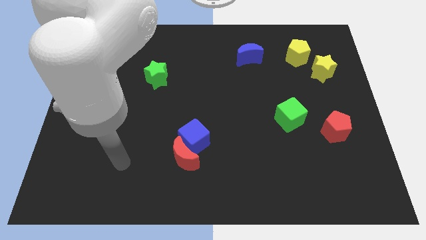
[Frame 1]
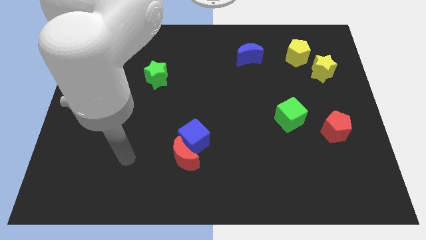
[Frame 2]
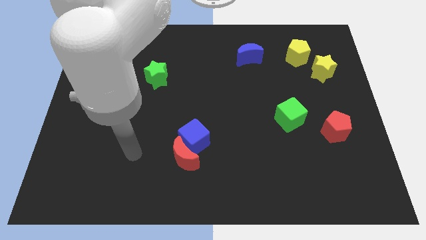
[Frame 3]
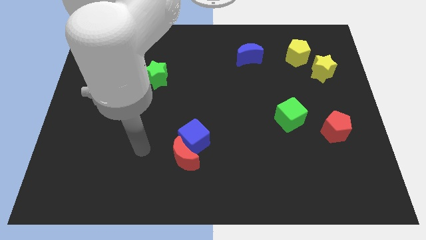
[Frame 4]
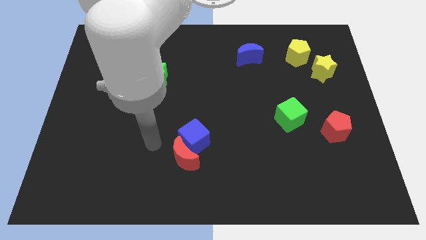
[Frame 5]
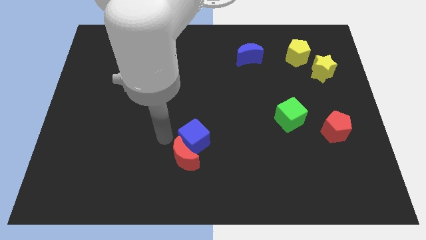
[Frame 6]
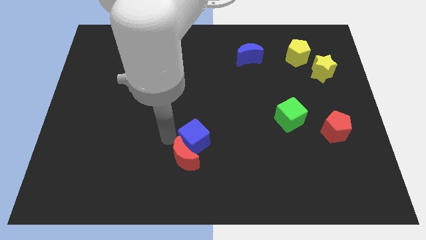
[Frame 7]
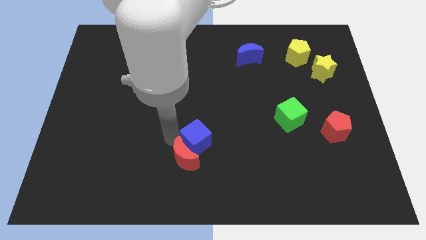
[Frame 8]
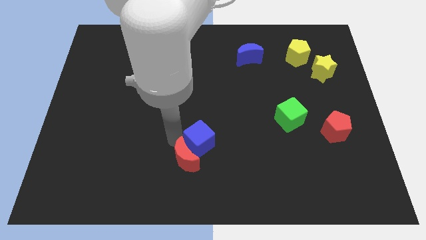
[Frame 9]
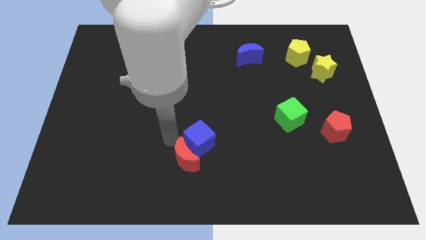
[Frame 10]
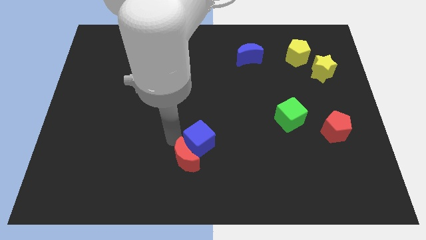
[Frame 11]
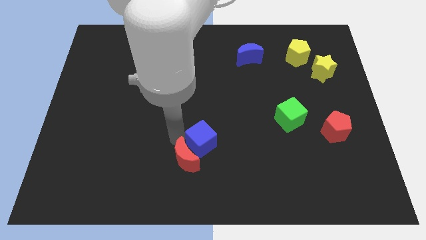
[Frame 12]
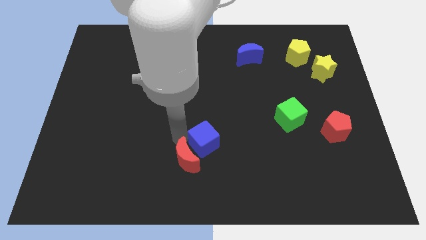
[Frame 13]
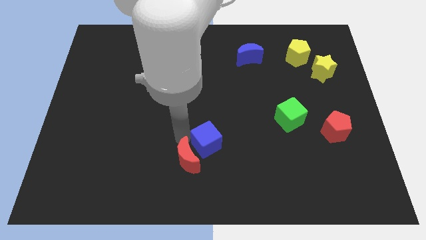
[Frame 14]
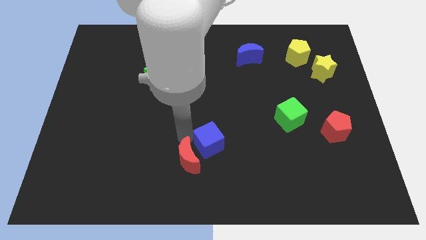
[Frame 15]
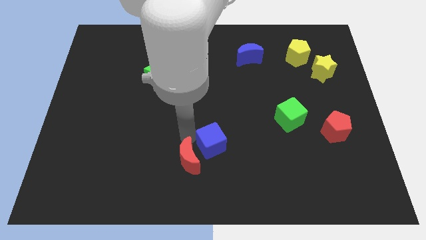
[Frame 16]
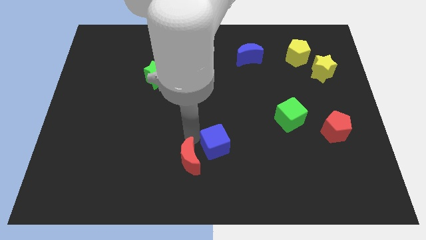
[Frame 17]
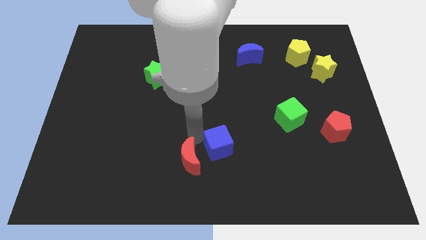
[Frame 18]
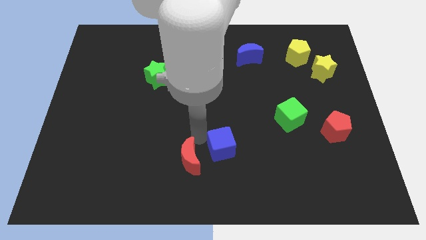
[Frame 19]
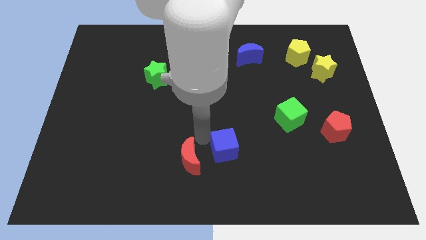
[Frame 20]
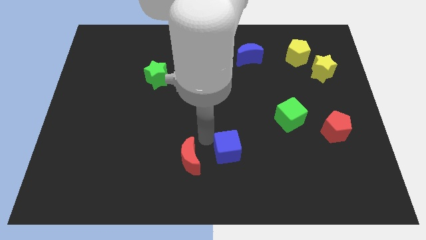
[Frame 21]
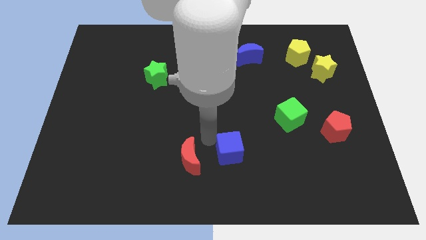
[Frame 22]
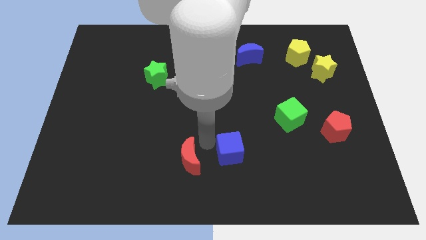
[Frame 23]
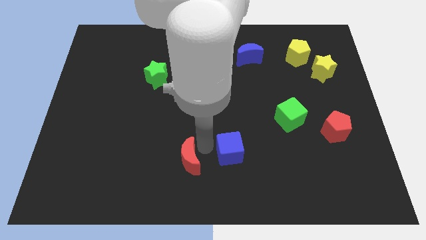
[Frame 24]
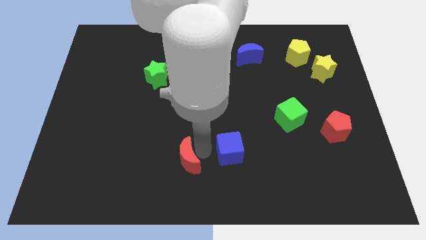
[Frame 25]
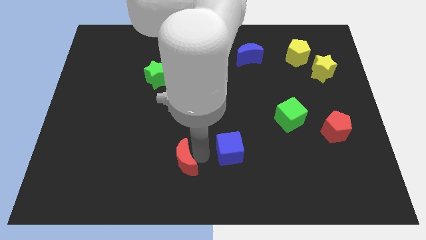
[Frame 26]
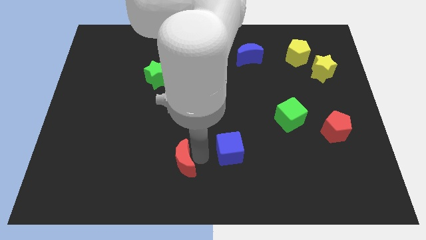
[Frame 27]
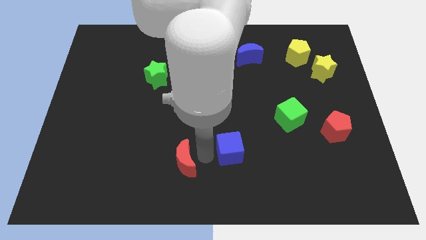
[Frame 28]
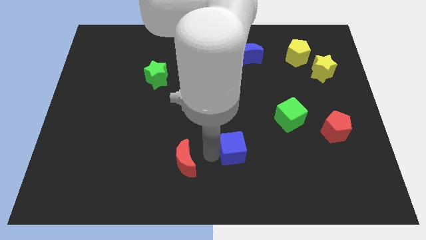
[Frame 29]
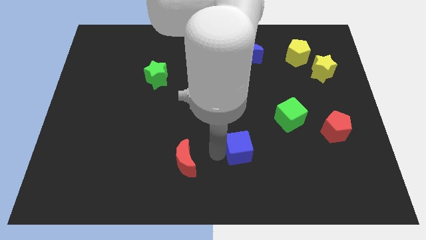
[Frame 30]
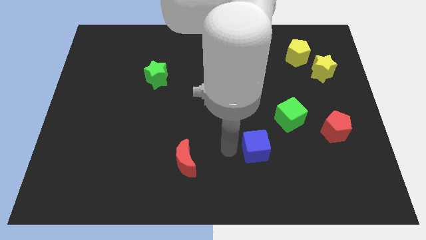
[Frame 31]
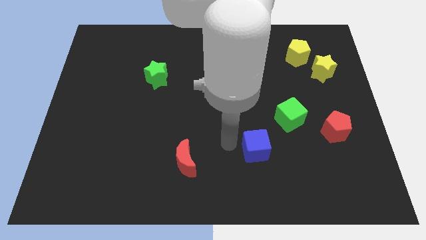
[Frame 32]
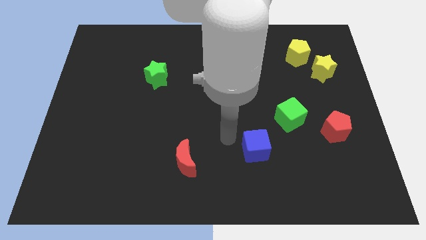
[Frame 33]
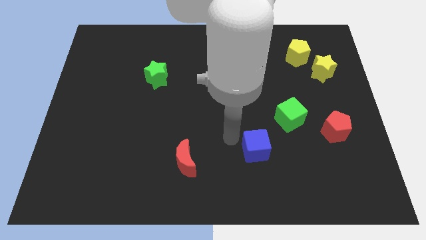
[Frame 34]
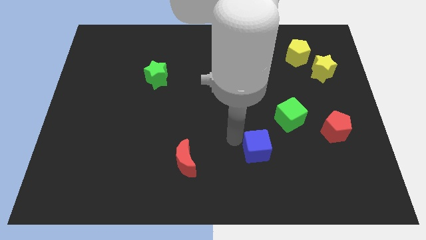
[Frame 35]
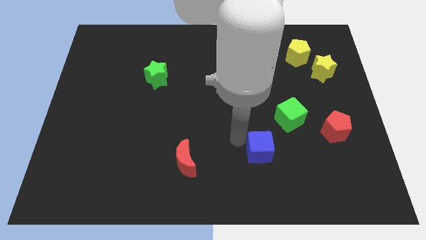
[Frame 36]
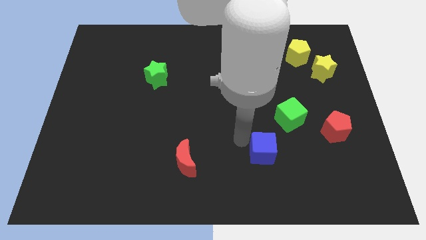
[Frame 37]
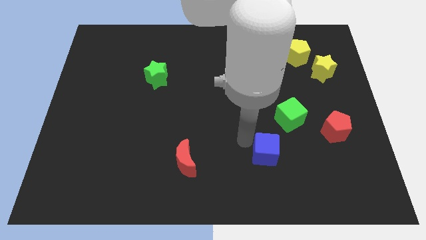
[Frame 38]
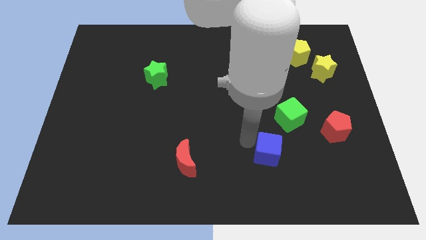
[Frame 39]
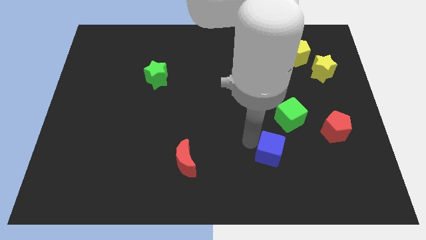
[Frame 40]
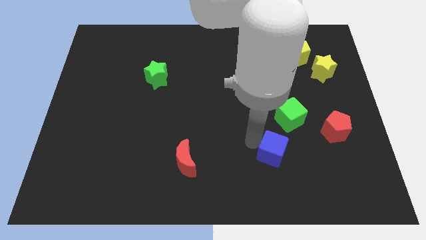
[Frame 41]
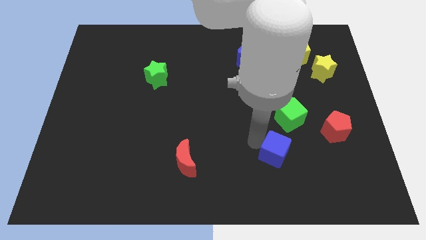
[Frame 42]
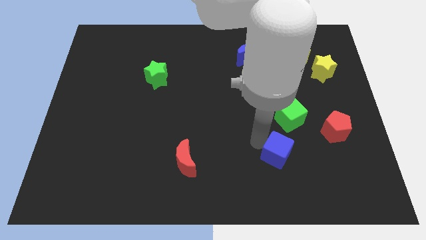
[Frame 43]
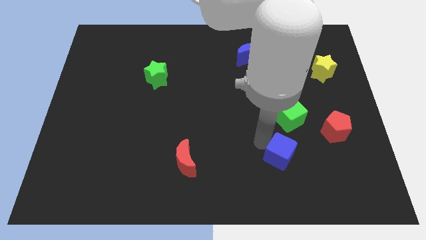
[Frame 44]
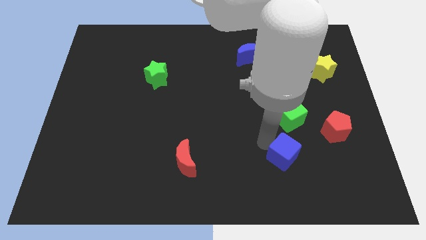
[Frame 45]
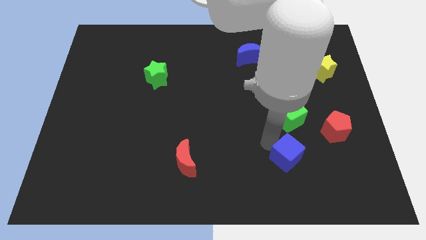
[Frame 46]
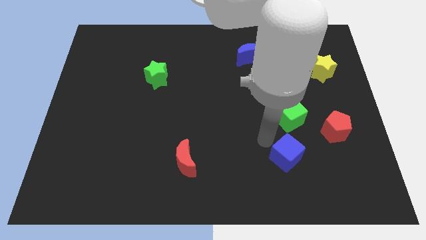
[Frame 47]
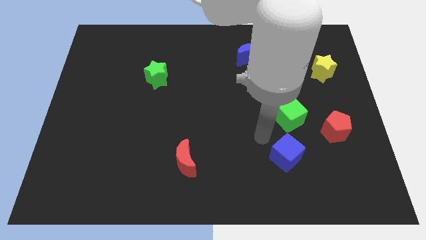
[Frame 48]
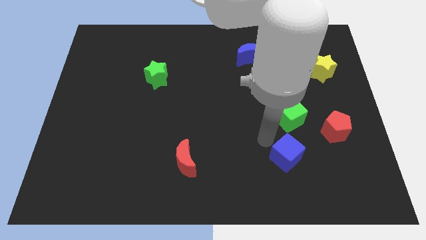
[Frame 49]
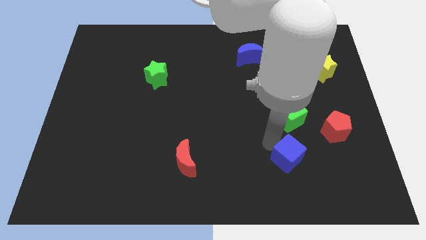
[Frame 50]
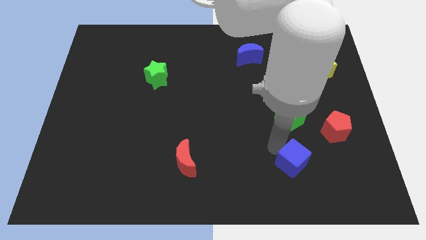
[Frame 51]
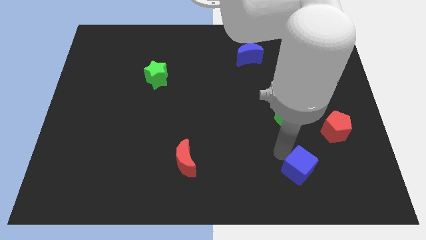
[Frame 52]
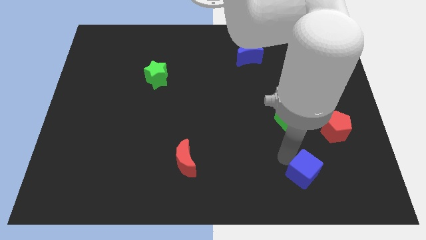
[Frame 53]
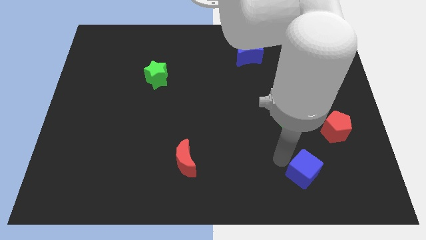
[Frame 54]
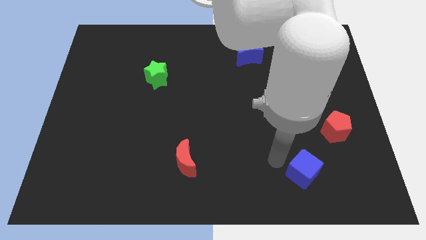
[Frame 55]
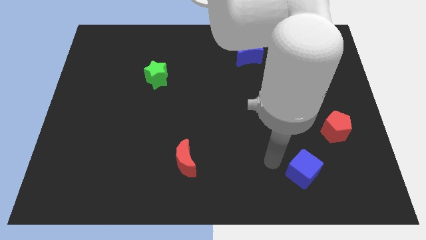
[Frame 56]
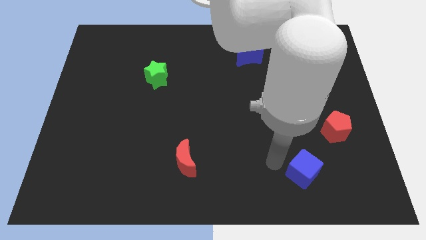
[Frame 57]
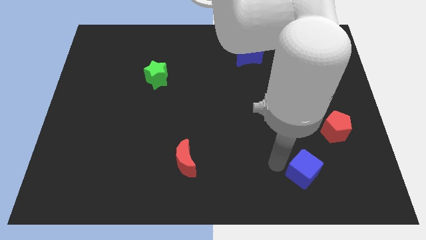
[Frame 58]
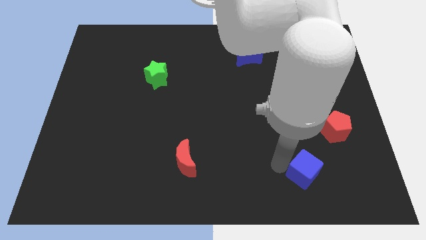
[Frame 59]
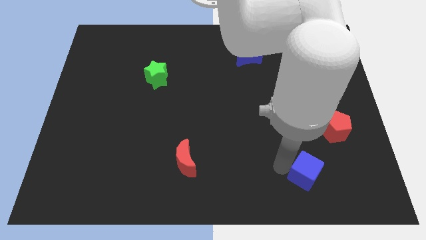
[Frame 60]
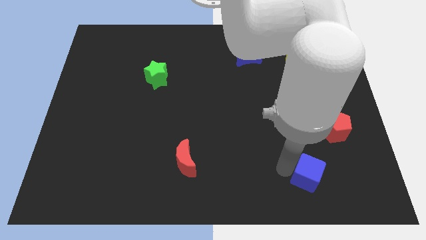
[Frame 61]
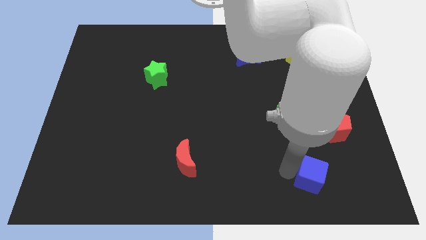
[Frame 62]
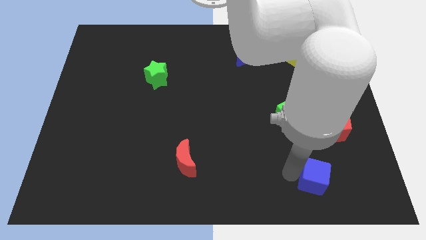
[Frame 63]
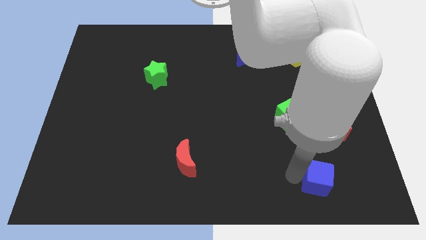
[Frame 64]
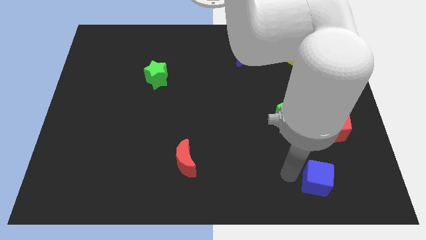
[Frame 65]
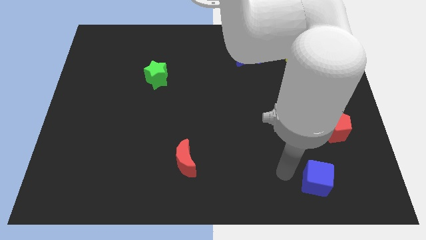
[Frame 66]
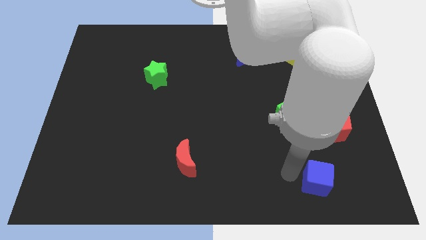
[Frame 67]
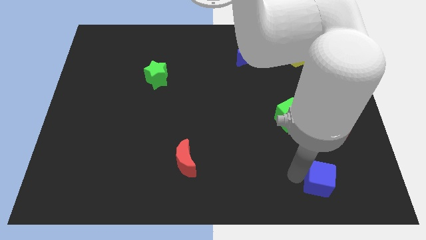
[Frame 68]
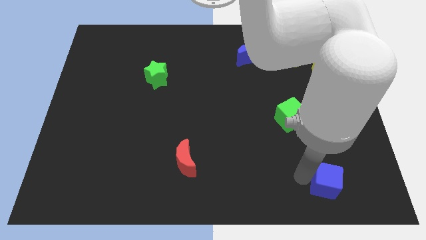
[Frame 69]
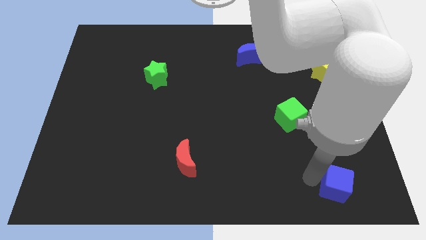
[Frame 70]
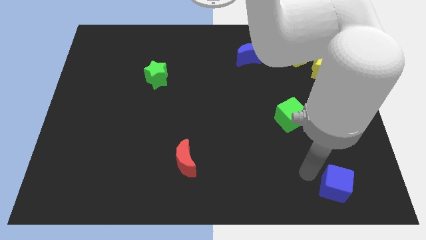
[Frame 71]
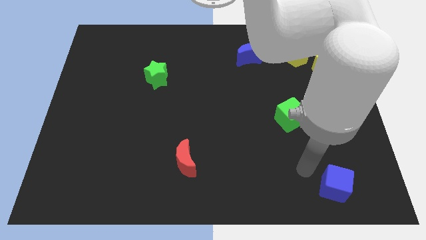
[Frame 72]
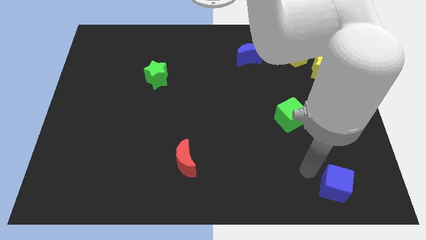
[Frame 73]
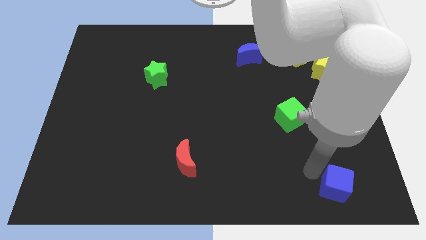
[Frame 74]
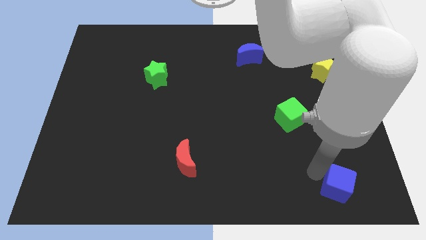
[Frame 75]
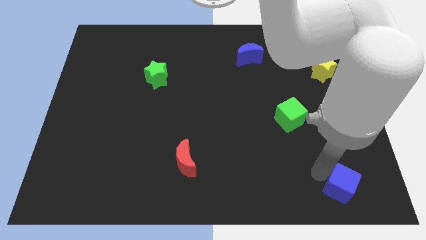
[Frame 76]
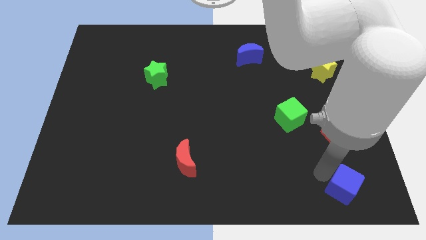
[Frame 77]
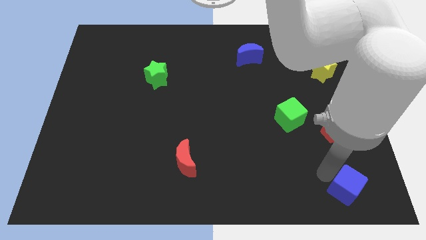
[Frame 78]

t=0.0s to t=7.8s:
move the blue cube to the bottom right of the board
